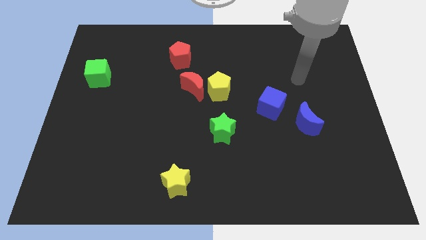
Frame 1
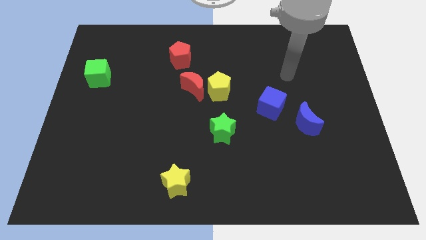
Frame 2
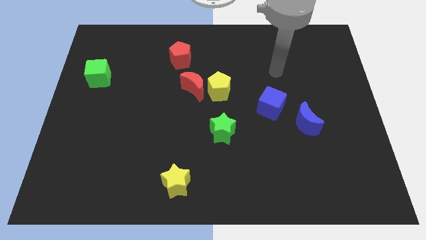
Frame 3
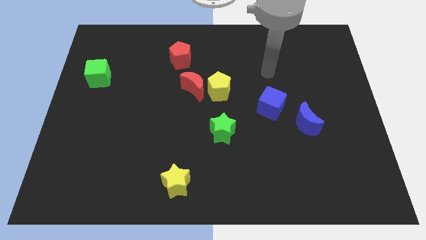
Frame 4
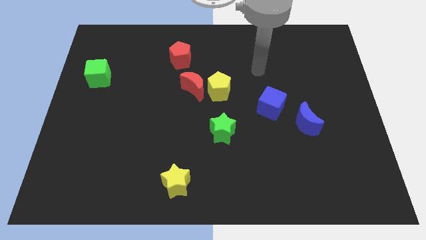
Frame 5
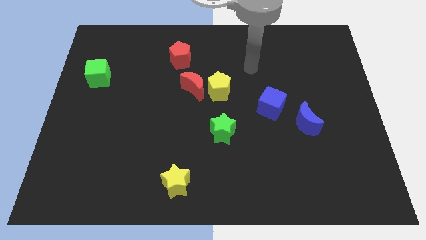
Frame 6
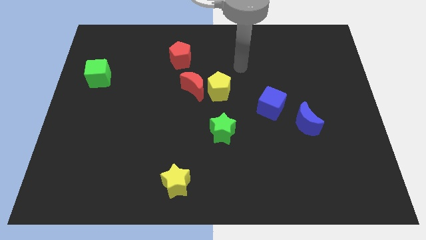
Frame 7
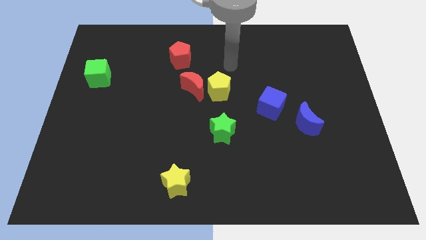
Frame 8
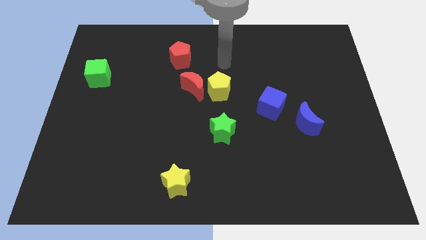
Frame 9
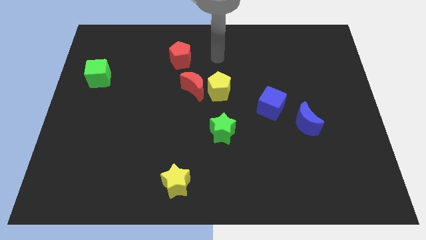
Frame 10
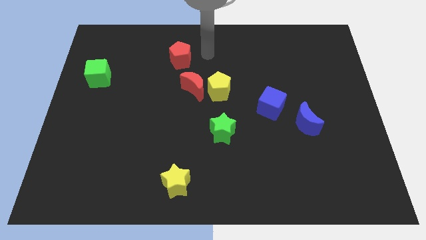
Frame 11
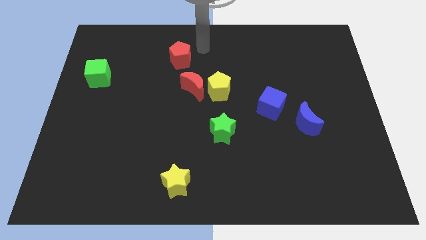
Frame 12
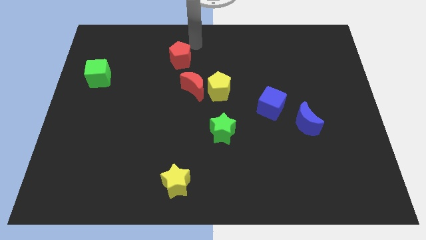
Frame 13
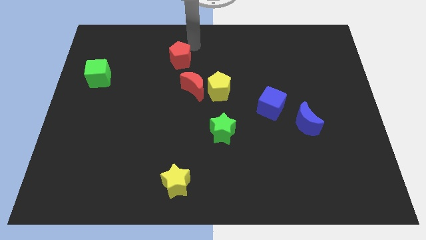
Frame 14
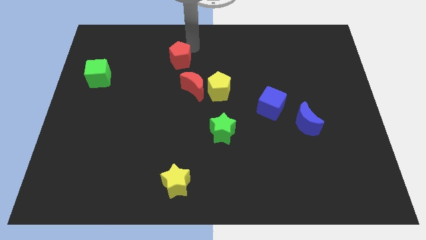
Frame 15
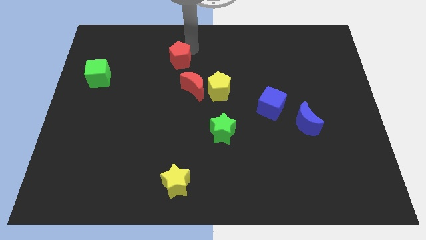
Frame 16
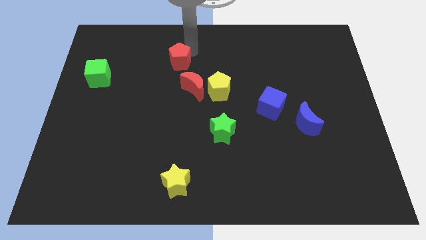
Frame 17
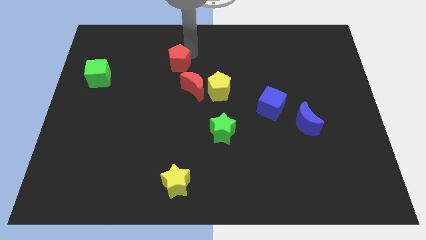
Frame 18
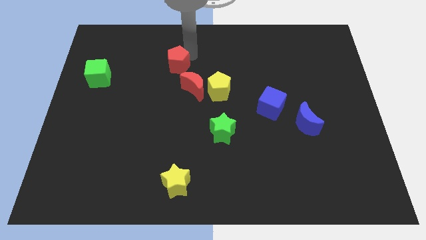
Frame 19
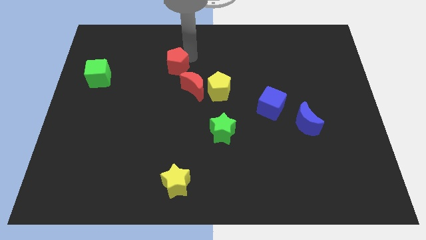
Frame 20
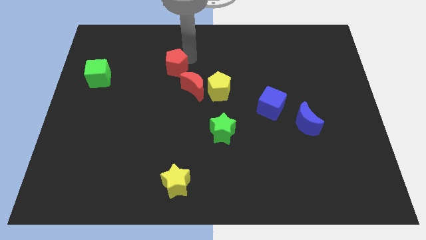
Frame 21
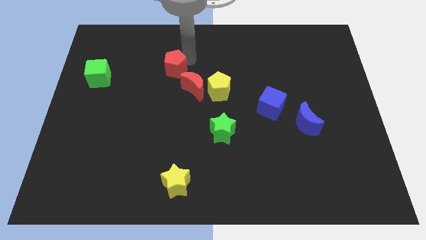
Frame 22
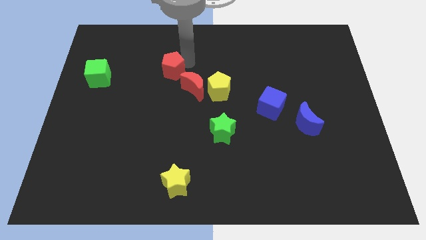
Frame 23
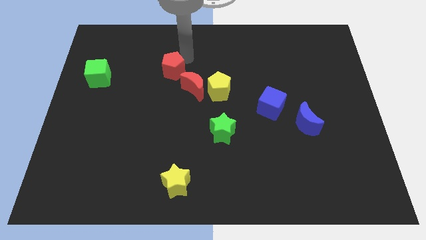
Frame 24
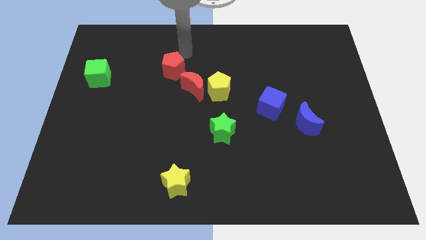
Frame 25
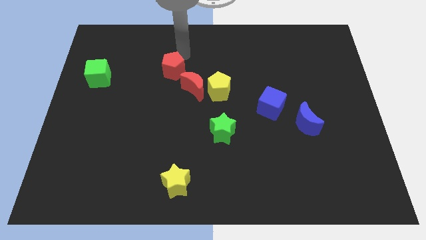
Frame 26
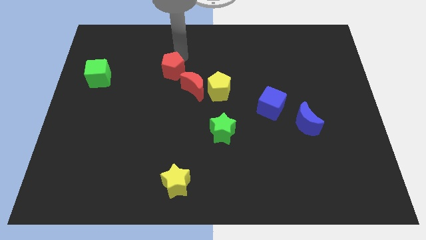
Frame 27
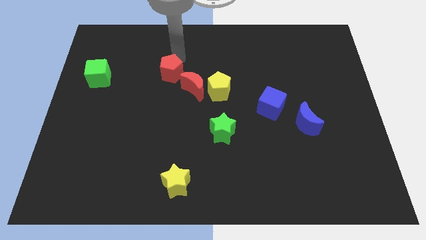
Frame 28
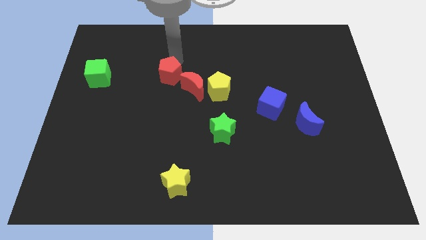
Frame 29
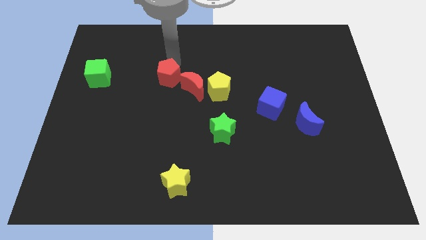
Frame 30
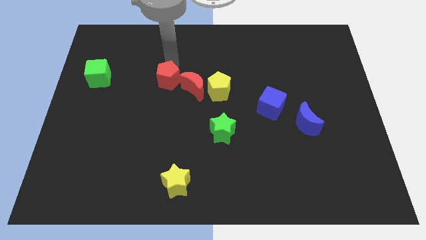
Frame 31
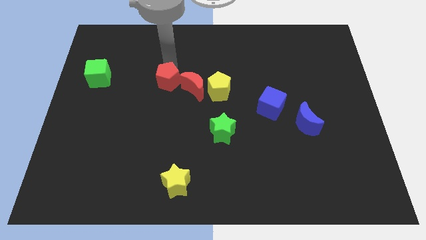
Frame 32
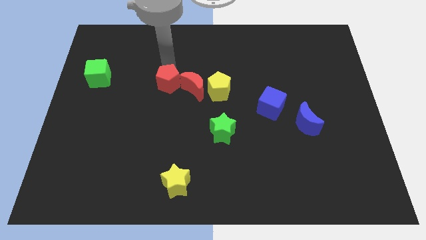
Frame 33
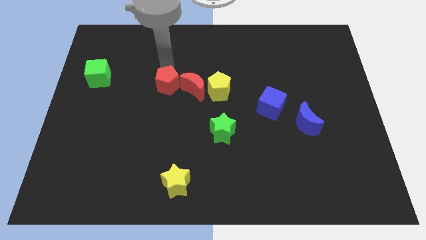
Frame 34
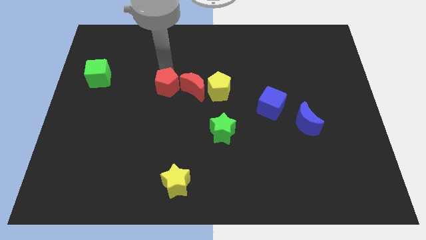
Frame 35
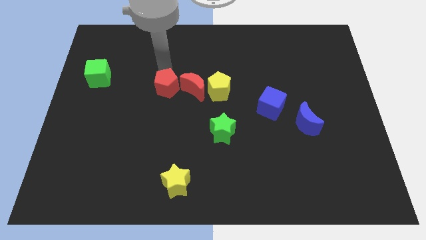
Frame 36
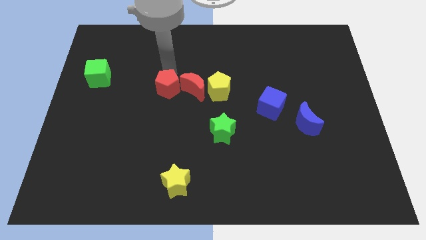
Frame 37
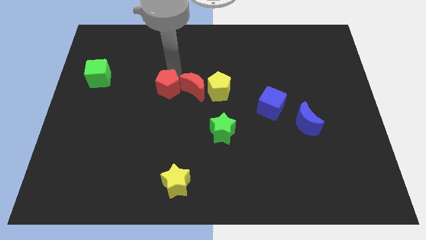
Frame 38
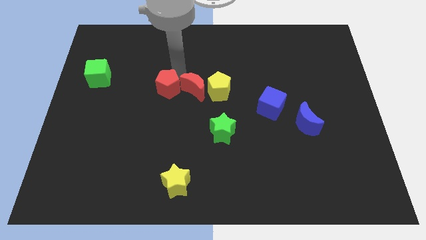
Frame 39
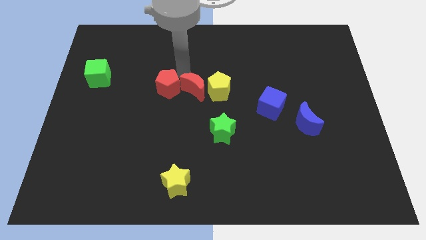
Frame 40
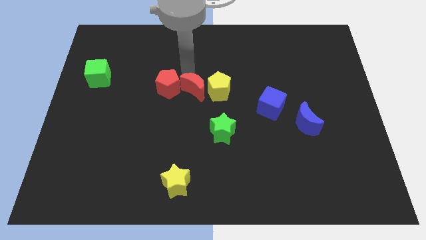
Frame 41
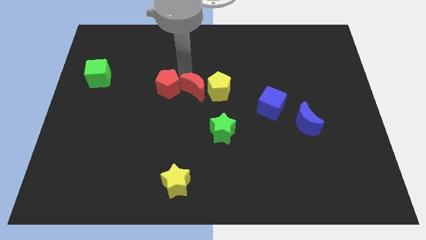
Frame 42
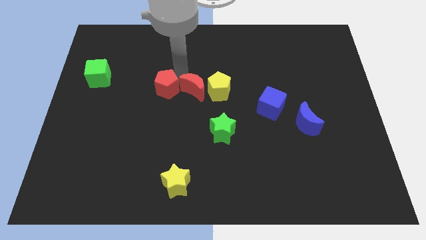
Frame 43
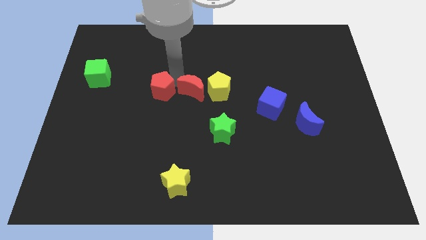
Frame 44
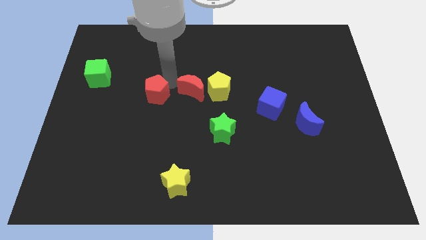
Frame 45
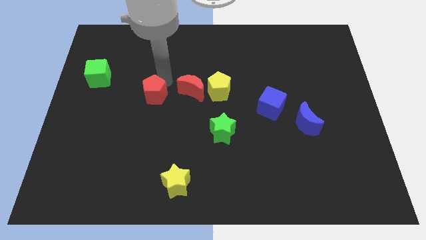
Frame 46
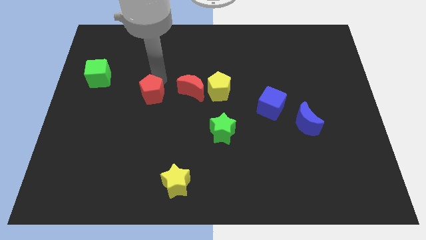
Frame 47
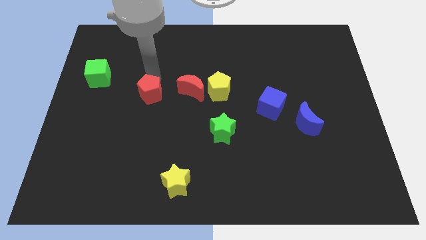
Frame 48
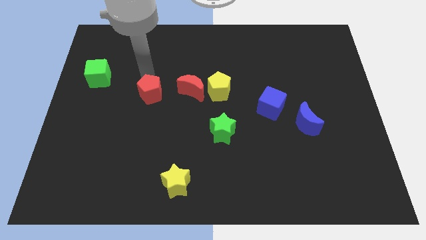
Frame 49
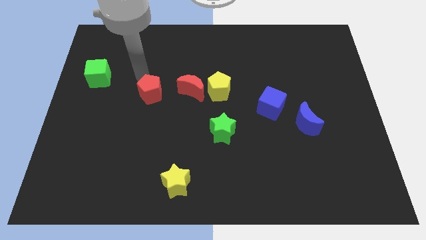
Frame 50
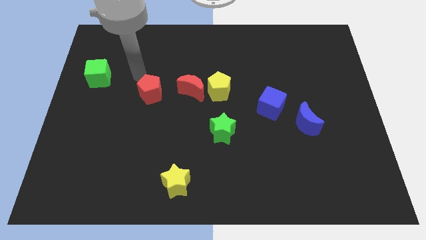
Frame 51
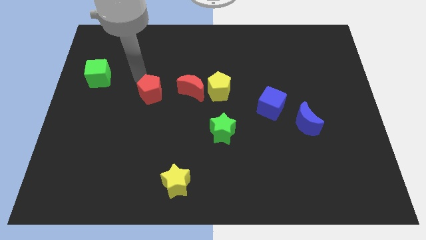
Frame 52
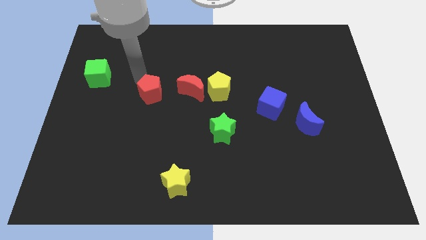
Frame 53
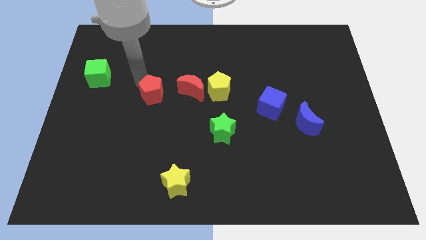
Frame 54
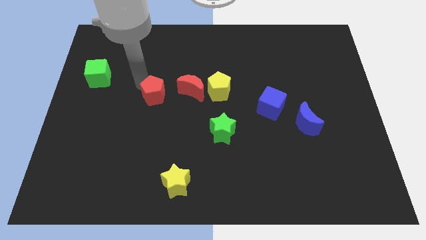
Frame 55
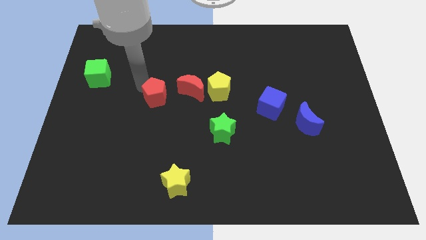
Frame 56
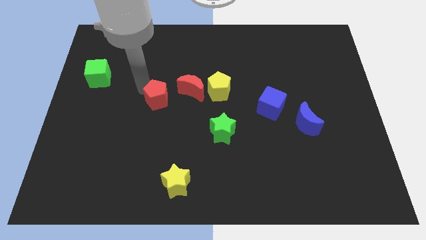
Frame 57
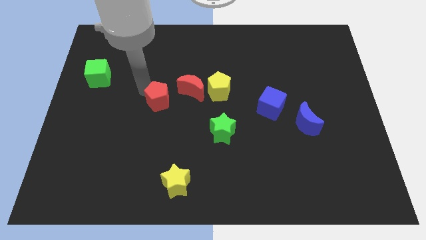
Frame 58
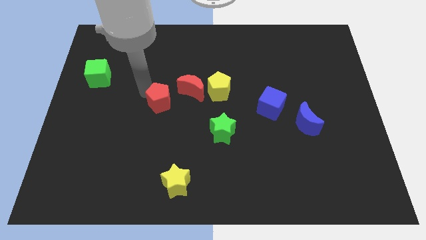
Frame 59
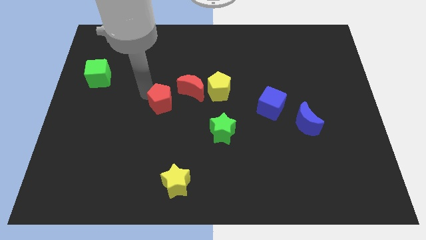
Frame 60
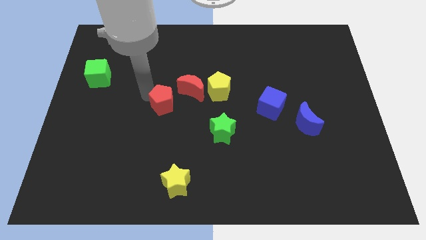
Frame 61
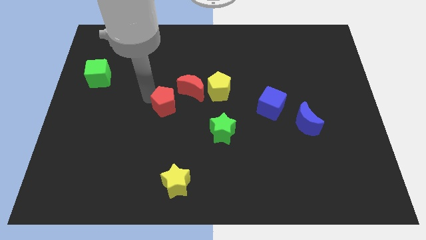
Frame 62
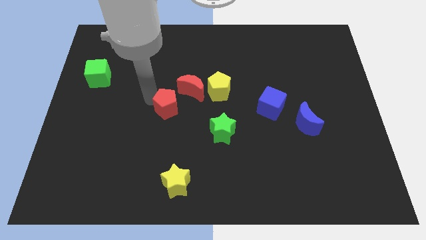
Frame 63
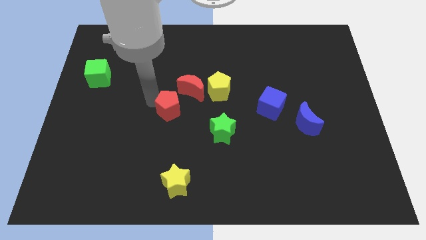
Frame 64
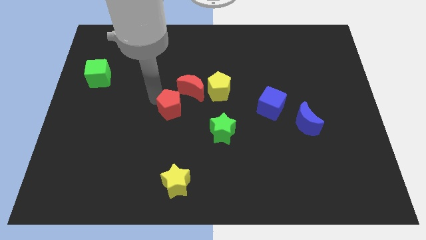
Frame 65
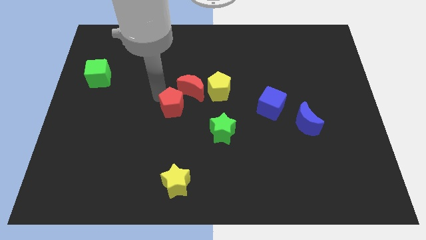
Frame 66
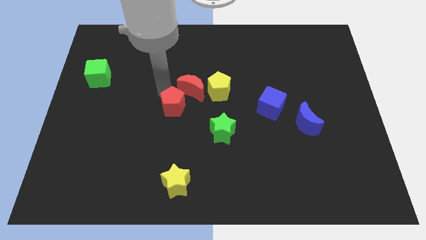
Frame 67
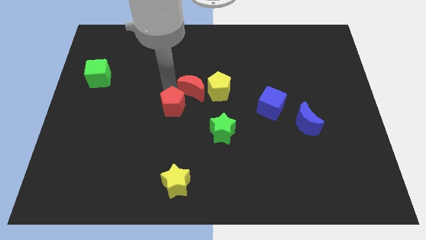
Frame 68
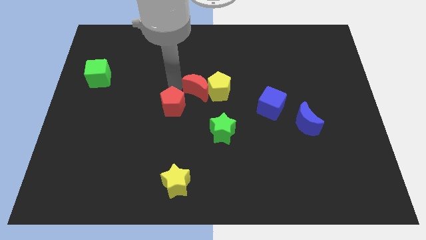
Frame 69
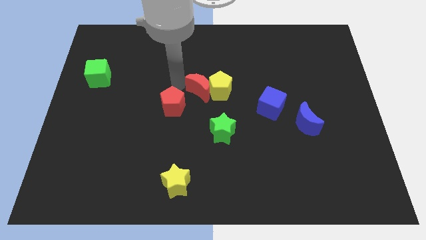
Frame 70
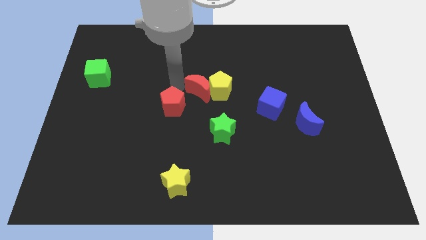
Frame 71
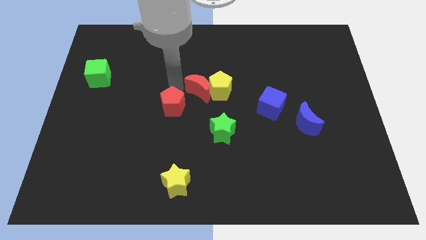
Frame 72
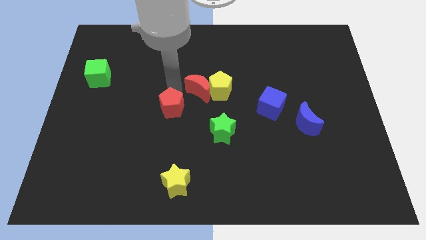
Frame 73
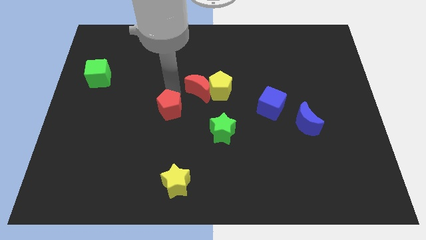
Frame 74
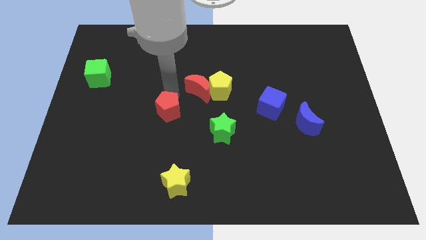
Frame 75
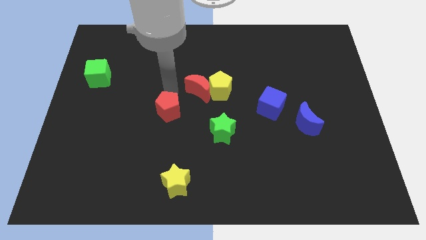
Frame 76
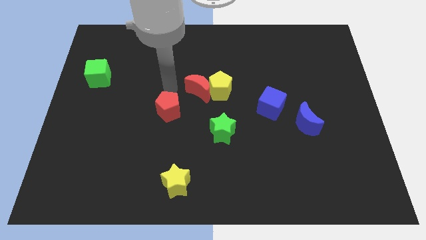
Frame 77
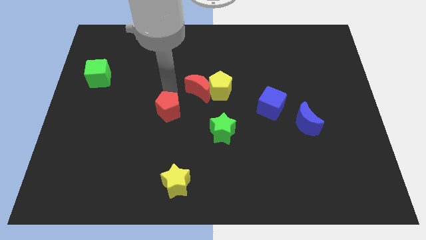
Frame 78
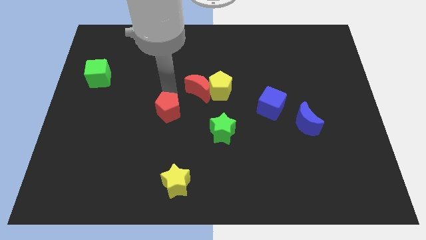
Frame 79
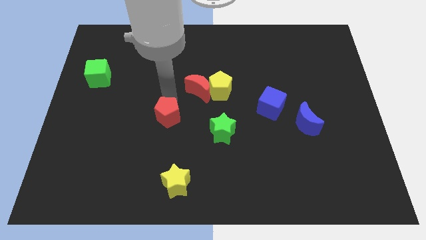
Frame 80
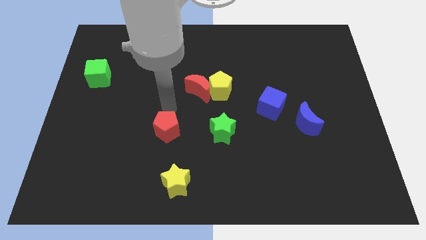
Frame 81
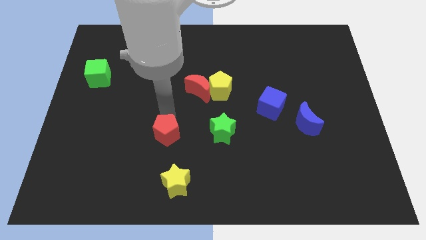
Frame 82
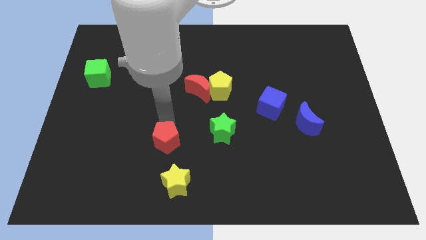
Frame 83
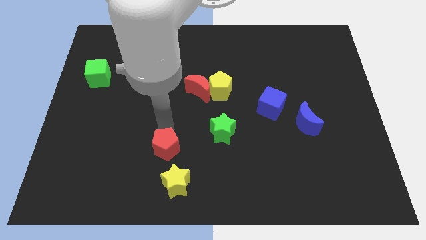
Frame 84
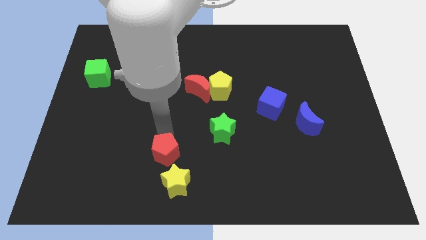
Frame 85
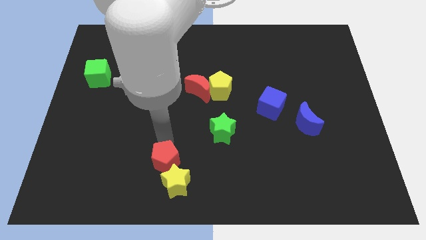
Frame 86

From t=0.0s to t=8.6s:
slide the red pentagon next to the yellow star
